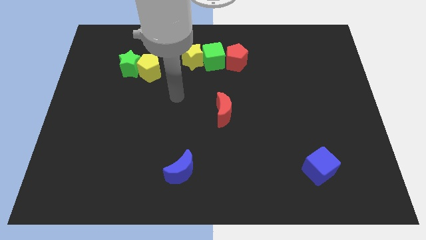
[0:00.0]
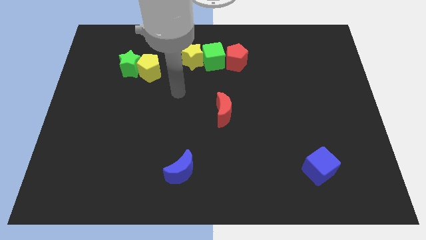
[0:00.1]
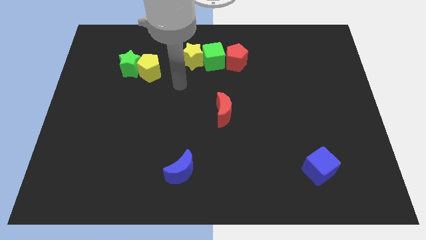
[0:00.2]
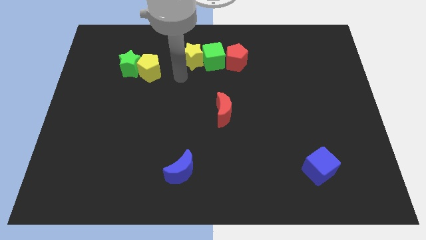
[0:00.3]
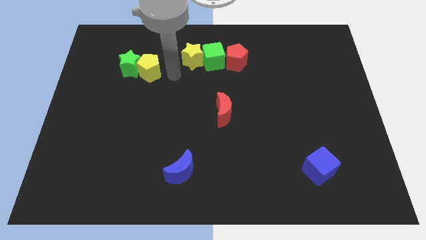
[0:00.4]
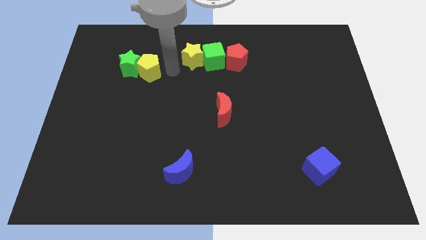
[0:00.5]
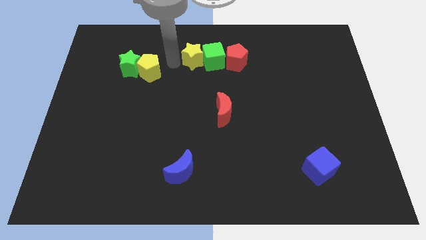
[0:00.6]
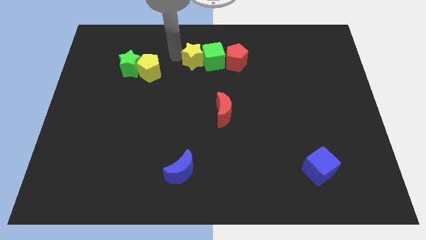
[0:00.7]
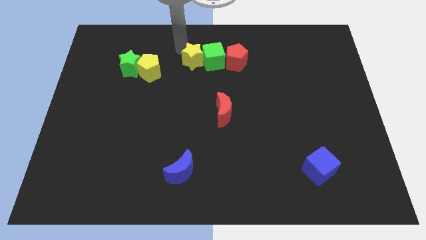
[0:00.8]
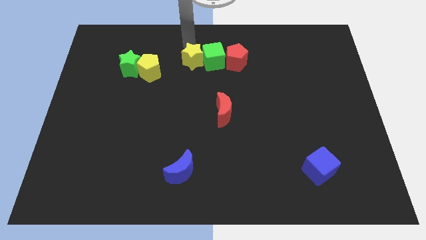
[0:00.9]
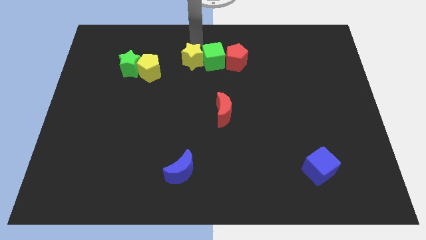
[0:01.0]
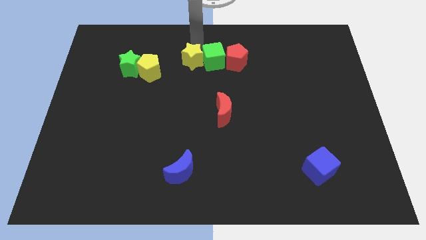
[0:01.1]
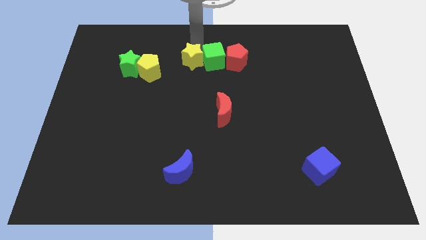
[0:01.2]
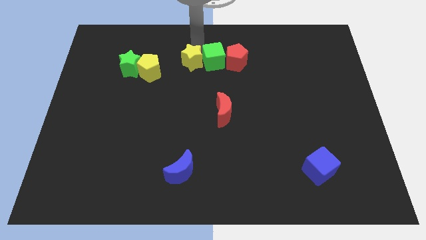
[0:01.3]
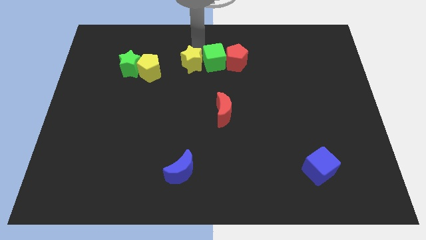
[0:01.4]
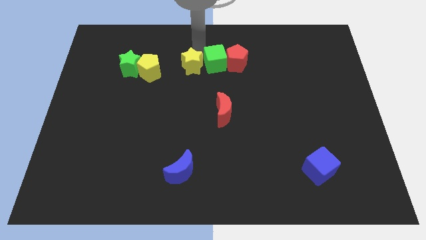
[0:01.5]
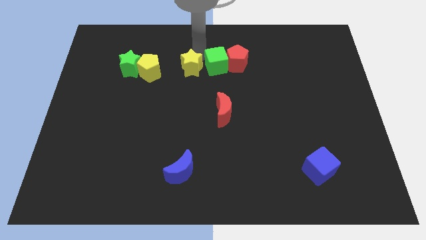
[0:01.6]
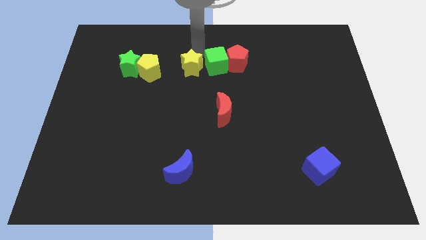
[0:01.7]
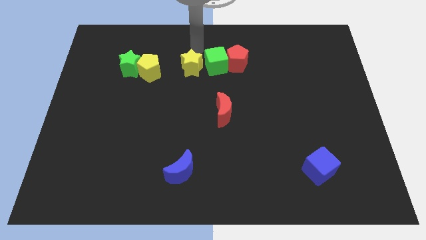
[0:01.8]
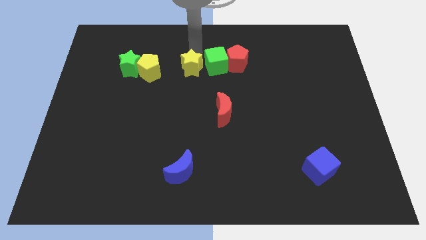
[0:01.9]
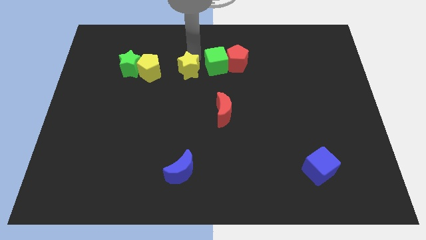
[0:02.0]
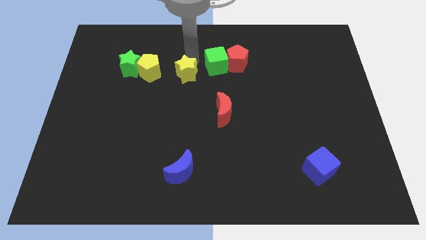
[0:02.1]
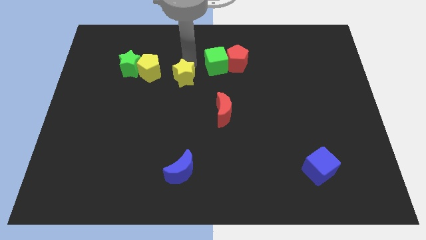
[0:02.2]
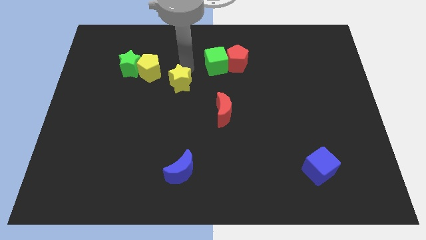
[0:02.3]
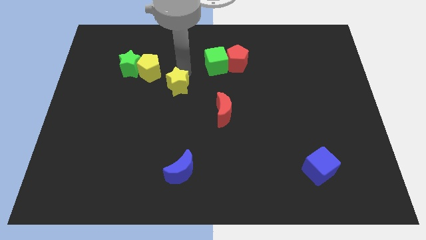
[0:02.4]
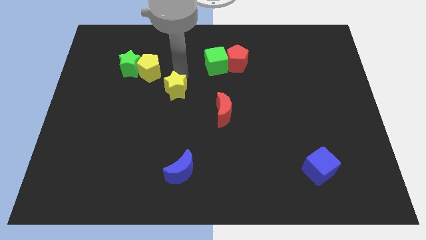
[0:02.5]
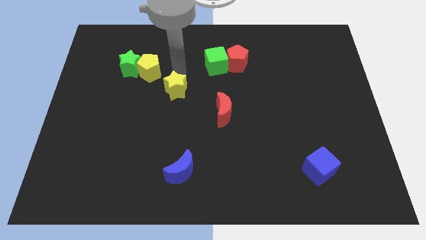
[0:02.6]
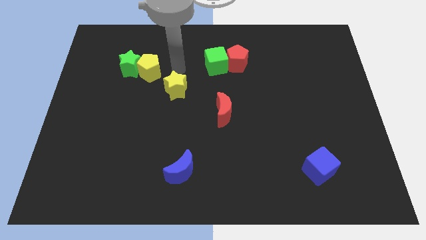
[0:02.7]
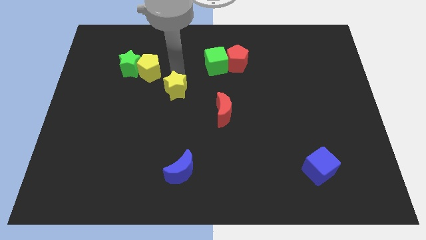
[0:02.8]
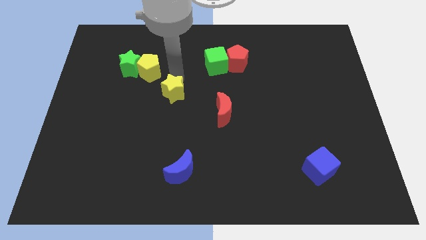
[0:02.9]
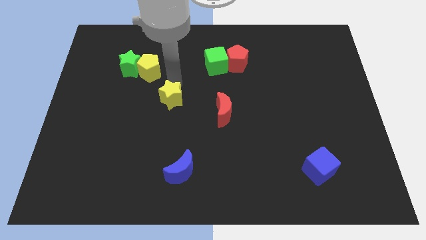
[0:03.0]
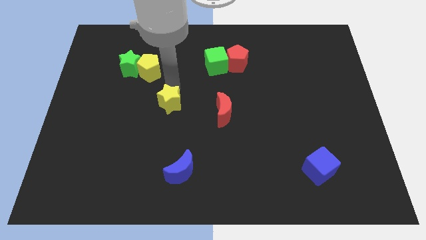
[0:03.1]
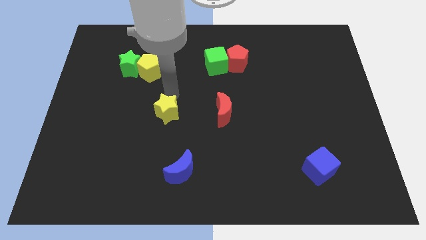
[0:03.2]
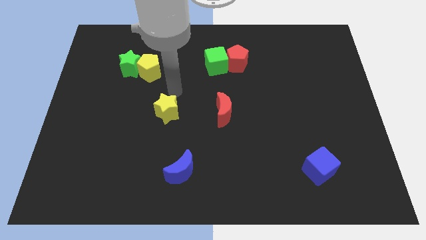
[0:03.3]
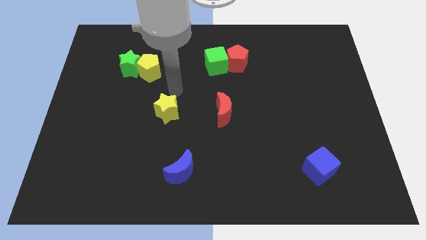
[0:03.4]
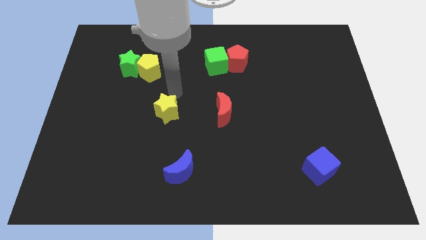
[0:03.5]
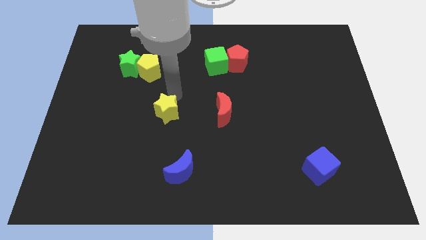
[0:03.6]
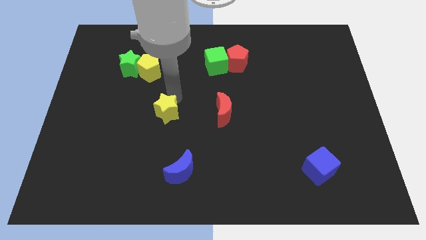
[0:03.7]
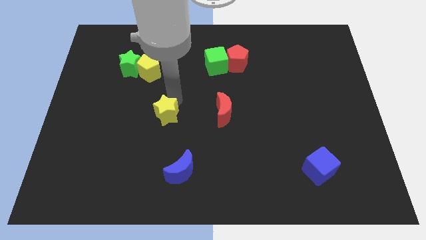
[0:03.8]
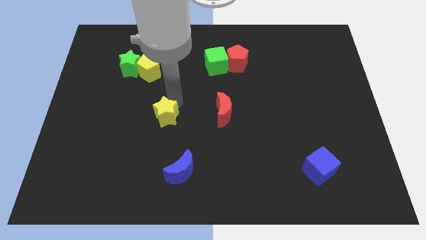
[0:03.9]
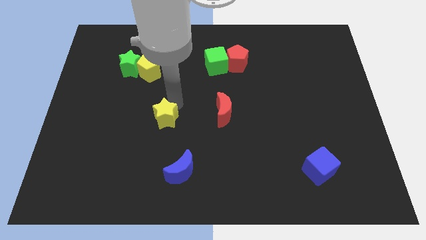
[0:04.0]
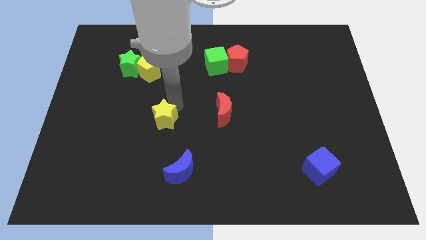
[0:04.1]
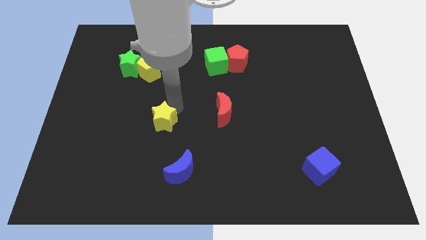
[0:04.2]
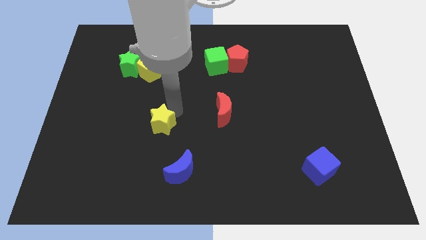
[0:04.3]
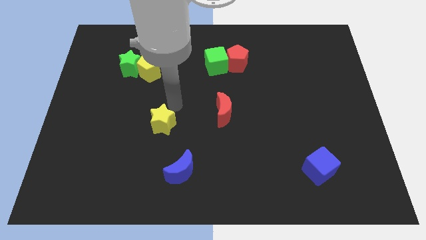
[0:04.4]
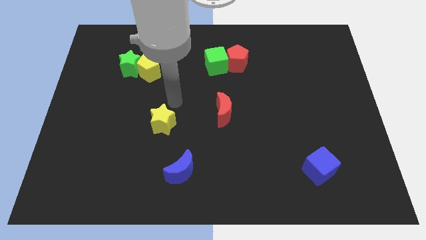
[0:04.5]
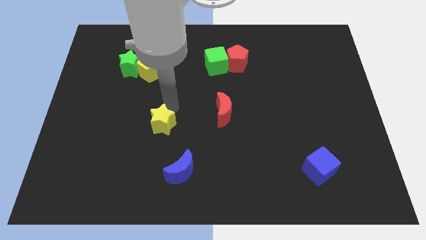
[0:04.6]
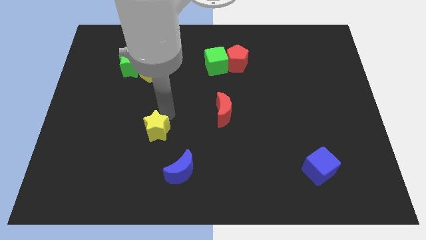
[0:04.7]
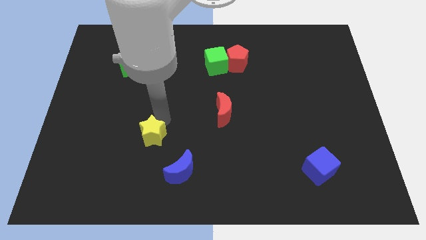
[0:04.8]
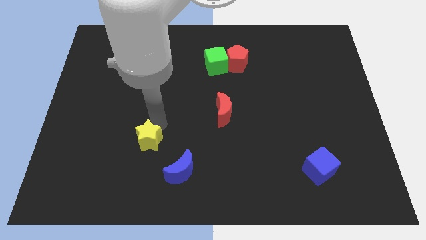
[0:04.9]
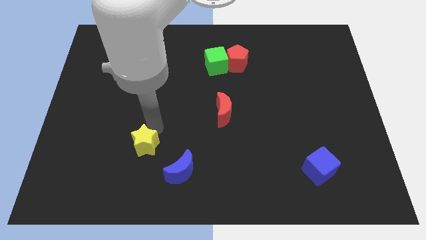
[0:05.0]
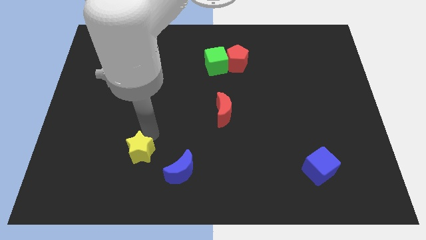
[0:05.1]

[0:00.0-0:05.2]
slide the yellow star just left of the blue moon

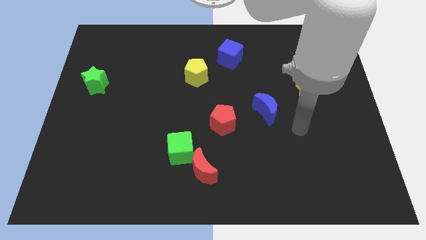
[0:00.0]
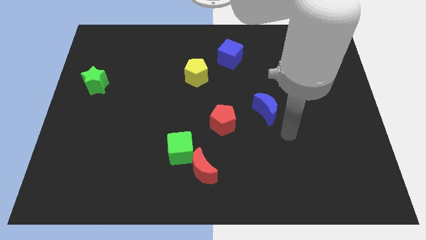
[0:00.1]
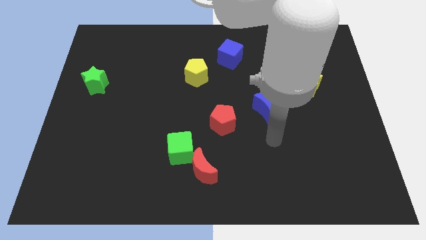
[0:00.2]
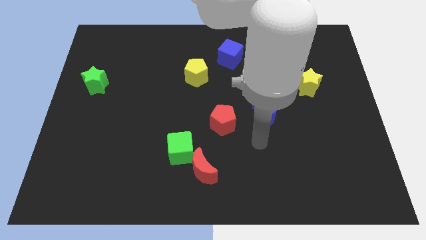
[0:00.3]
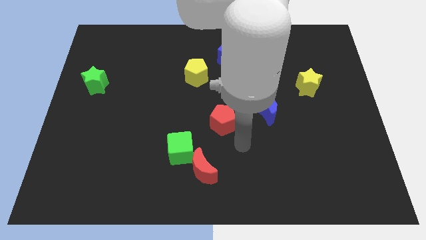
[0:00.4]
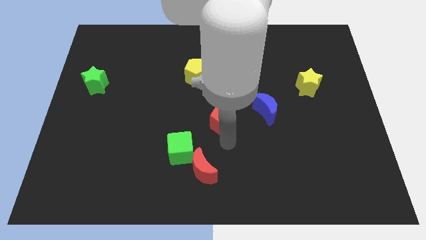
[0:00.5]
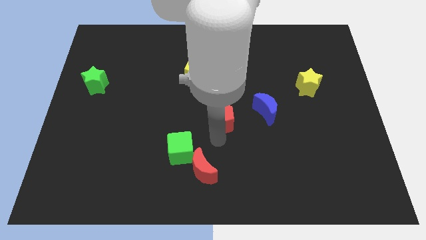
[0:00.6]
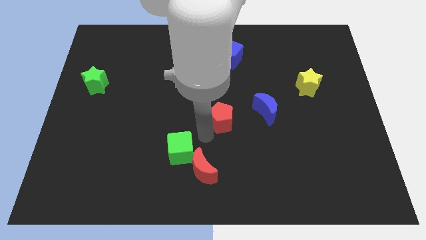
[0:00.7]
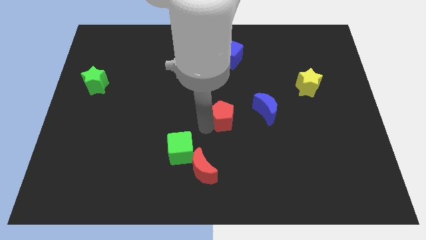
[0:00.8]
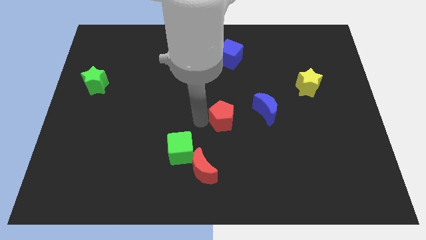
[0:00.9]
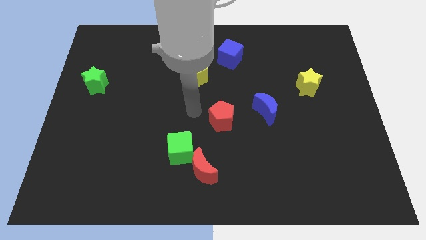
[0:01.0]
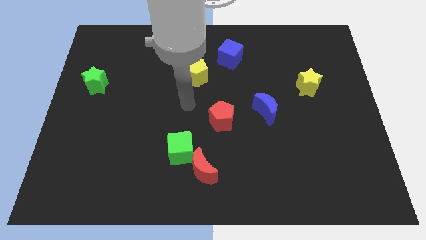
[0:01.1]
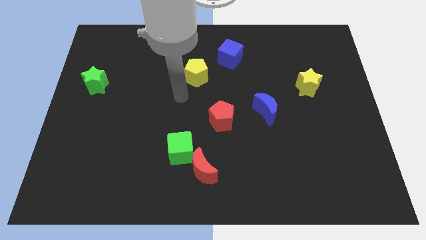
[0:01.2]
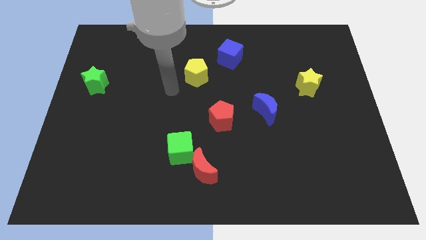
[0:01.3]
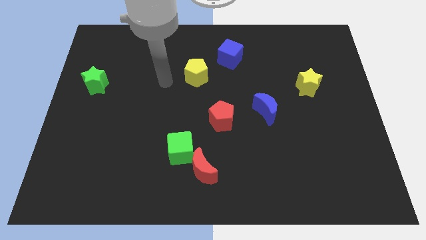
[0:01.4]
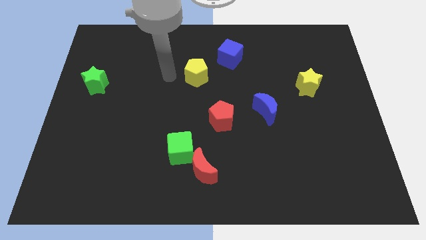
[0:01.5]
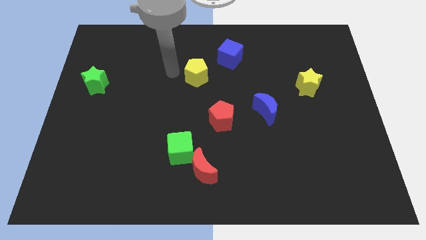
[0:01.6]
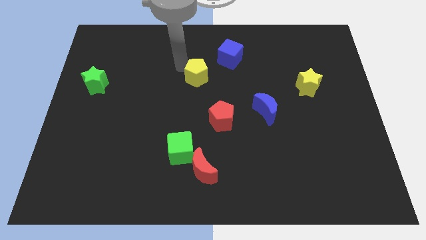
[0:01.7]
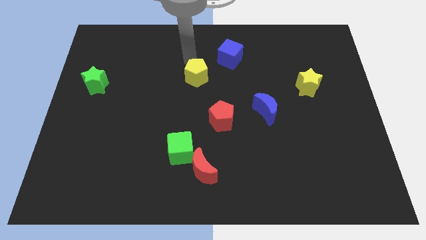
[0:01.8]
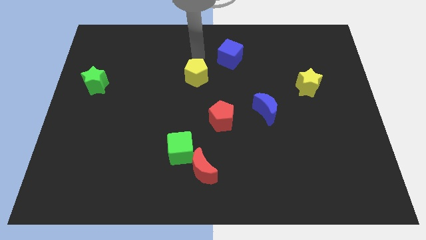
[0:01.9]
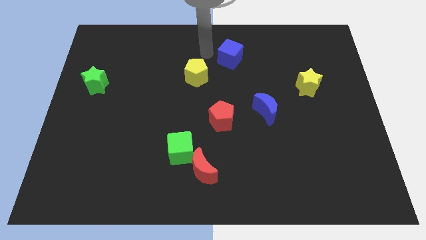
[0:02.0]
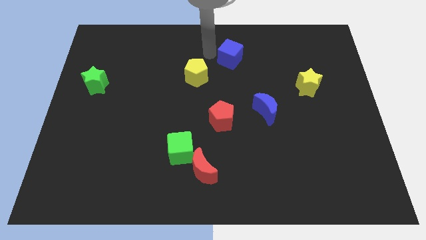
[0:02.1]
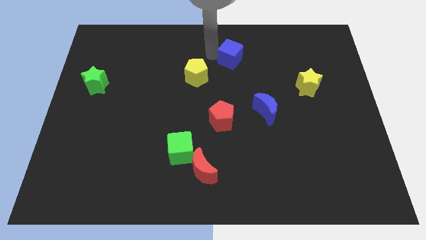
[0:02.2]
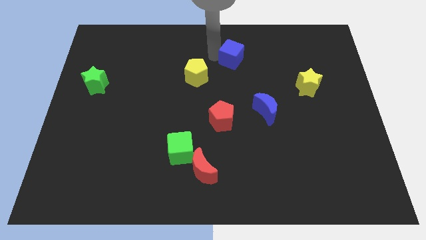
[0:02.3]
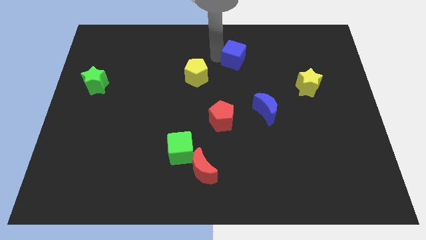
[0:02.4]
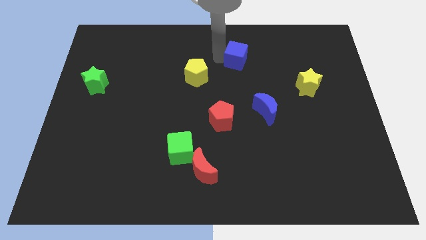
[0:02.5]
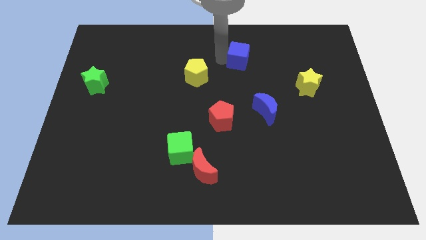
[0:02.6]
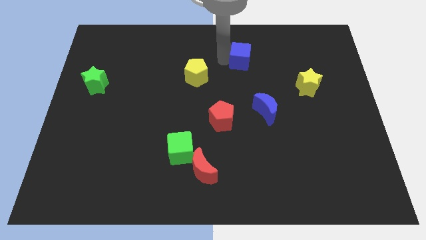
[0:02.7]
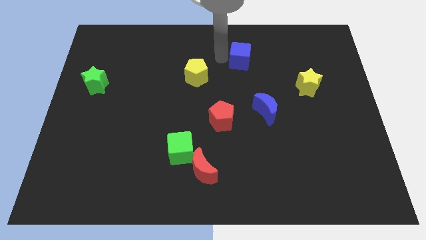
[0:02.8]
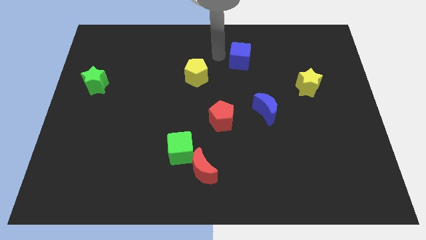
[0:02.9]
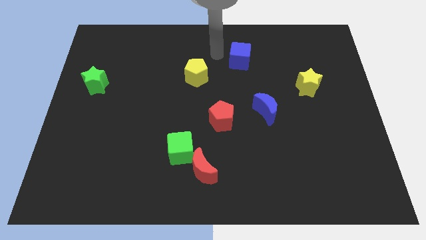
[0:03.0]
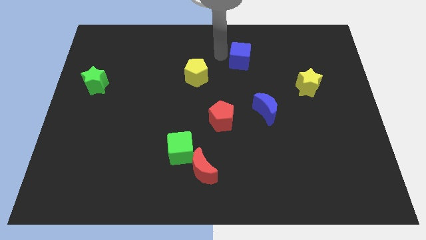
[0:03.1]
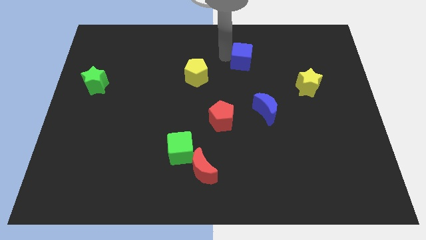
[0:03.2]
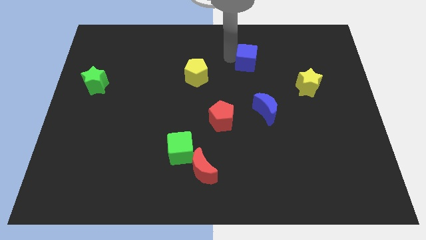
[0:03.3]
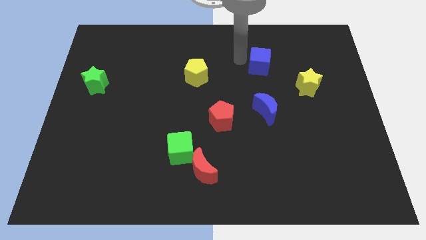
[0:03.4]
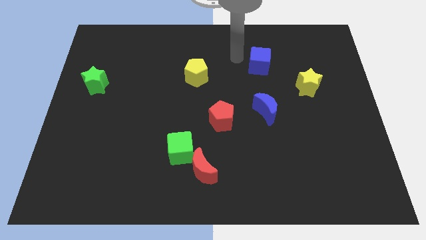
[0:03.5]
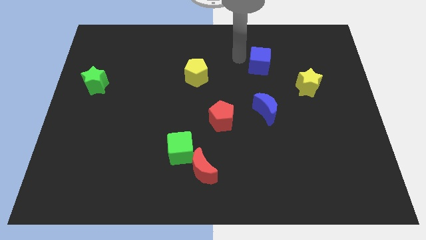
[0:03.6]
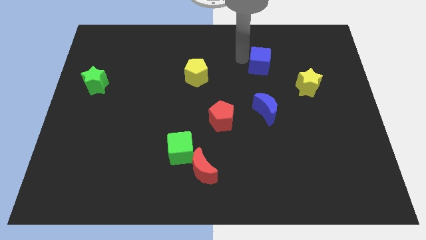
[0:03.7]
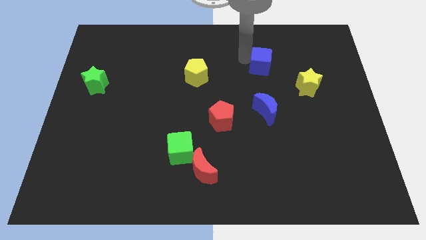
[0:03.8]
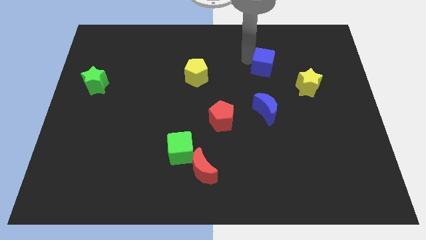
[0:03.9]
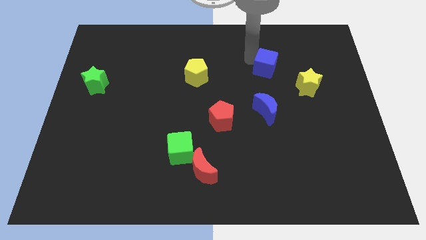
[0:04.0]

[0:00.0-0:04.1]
move the blue cube to the top left side of the yellow star
